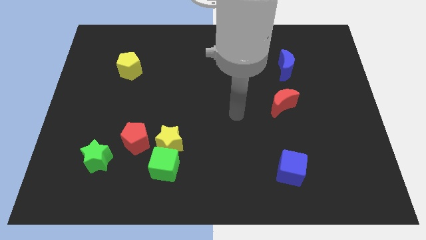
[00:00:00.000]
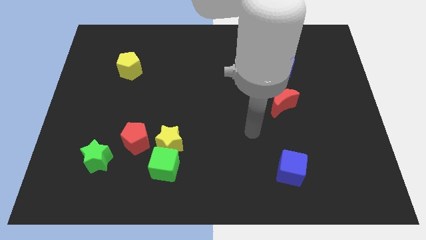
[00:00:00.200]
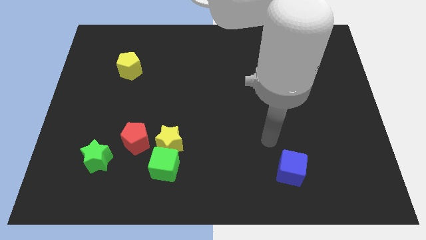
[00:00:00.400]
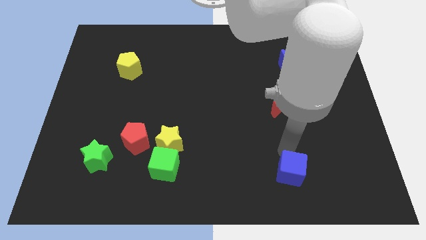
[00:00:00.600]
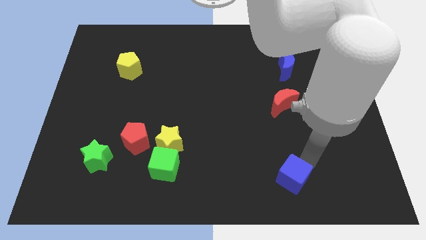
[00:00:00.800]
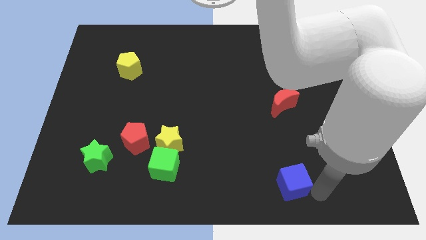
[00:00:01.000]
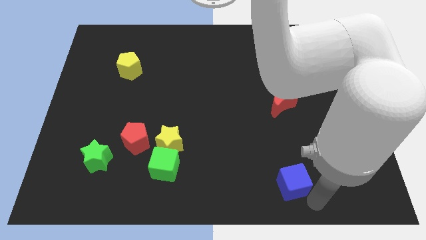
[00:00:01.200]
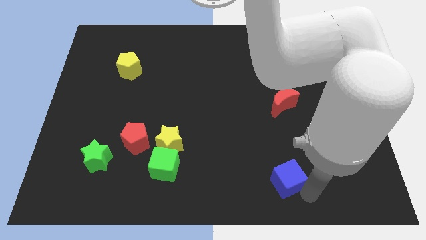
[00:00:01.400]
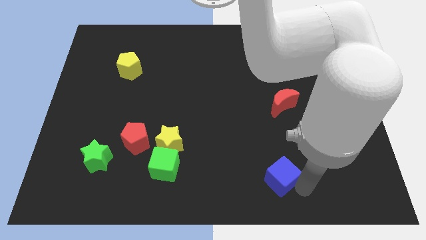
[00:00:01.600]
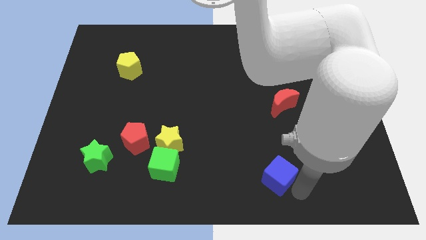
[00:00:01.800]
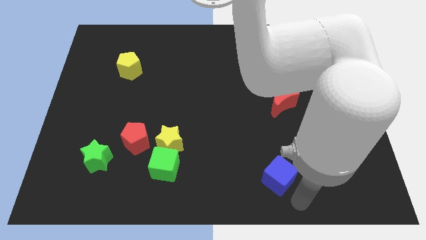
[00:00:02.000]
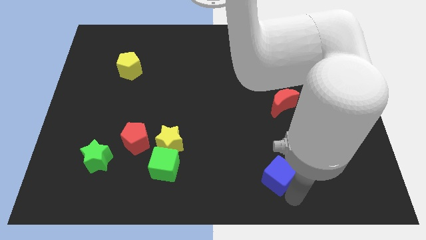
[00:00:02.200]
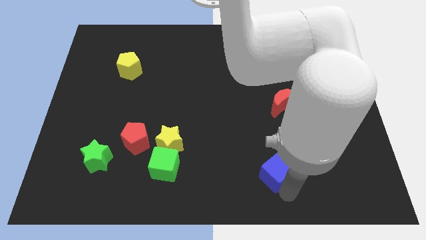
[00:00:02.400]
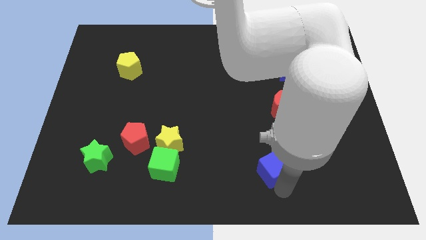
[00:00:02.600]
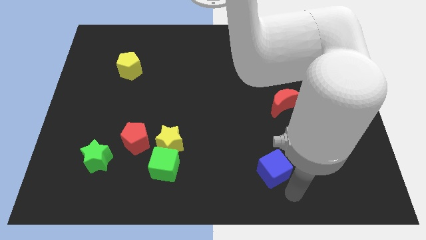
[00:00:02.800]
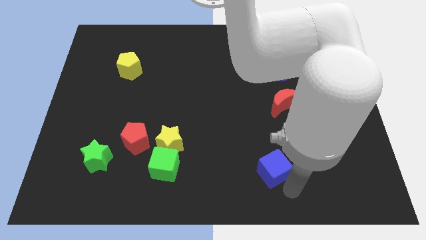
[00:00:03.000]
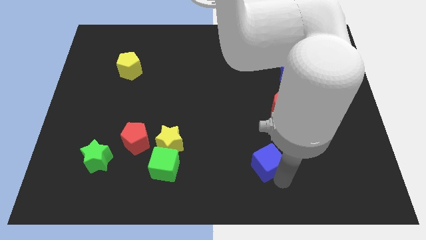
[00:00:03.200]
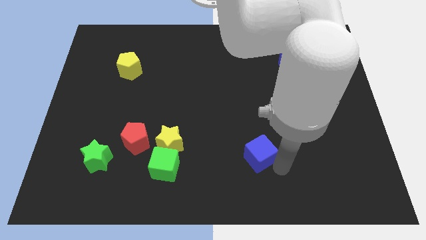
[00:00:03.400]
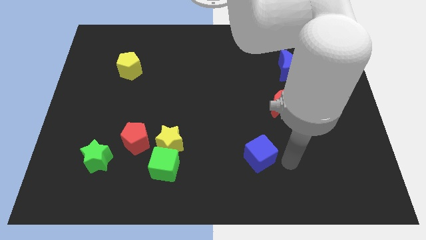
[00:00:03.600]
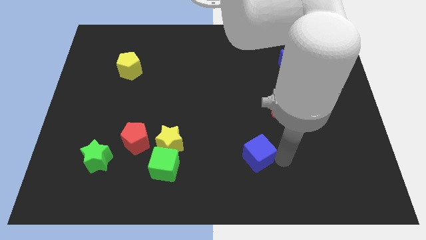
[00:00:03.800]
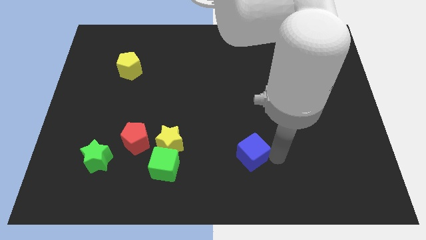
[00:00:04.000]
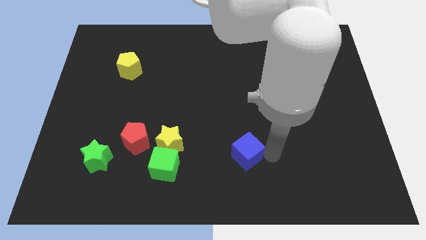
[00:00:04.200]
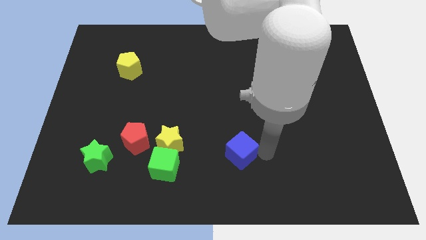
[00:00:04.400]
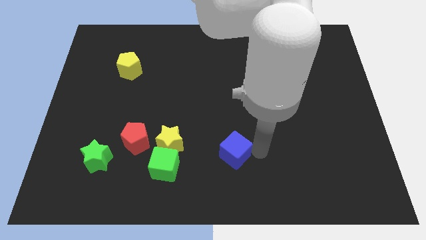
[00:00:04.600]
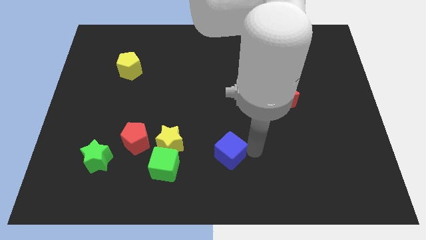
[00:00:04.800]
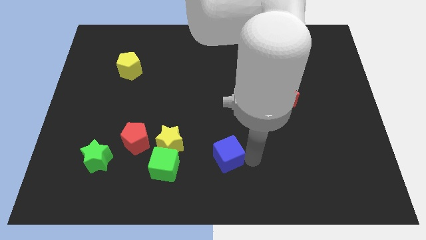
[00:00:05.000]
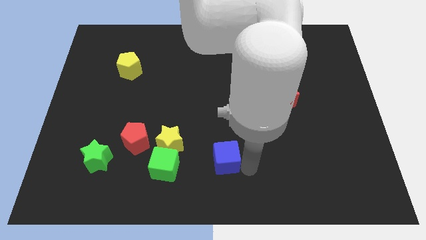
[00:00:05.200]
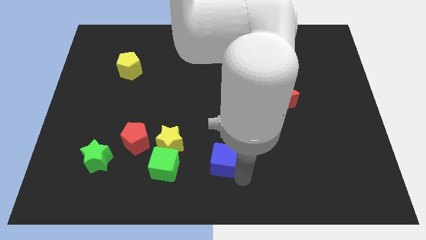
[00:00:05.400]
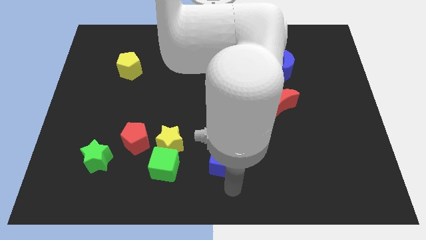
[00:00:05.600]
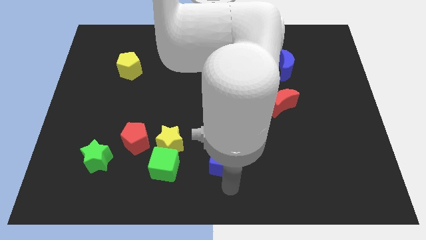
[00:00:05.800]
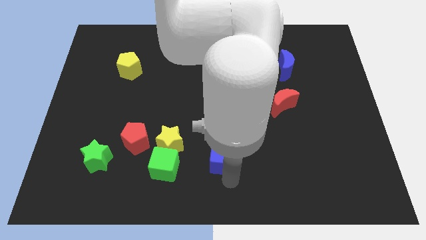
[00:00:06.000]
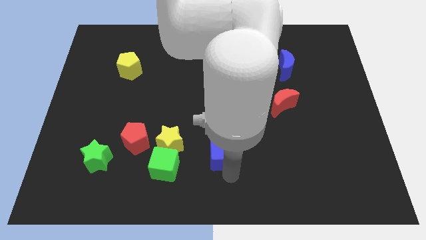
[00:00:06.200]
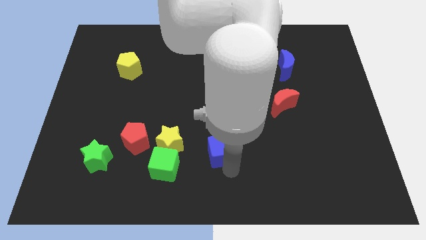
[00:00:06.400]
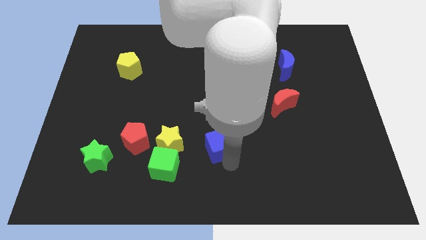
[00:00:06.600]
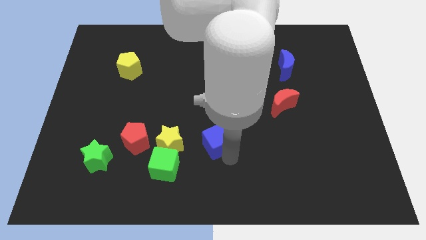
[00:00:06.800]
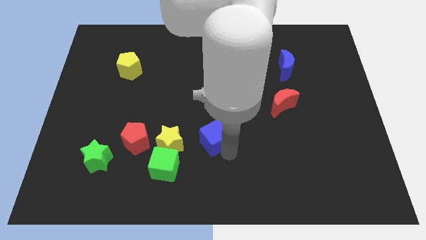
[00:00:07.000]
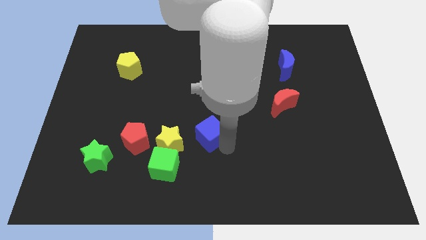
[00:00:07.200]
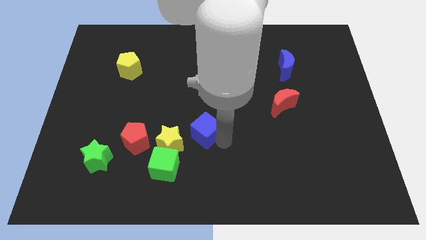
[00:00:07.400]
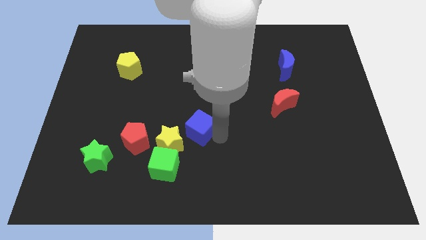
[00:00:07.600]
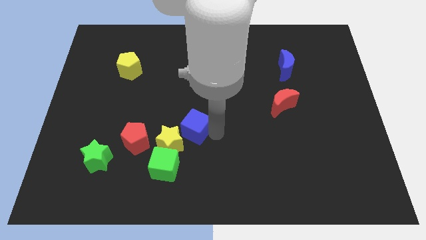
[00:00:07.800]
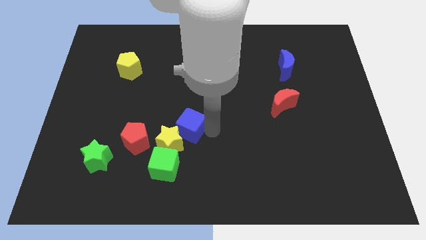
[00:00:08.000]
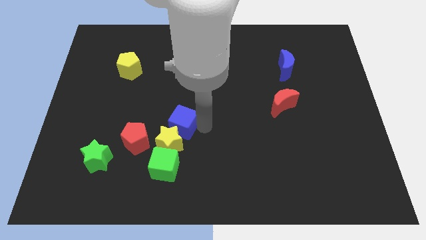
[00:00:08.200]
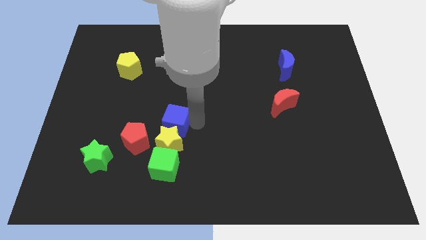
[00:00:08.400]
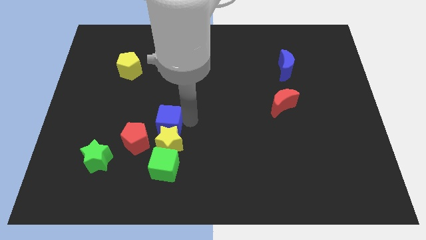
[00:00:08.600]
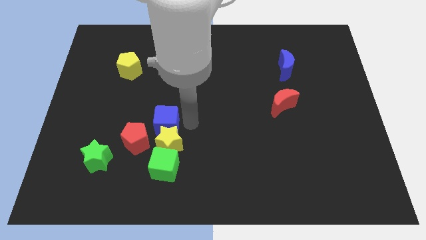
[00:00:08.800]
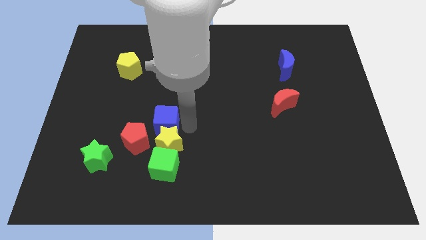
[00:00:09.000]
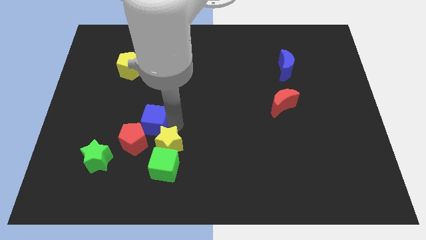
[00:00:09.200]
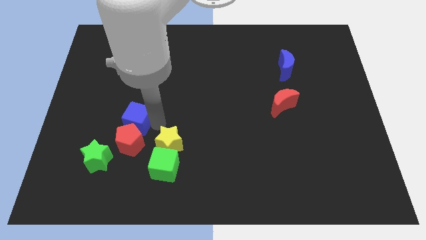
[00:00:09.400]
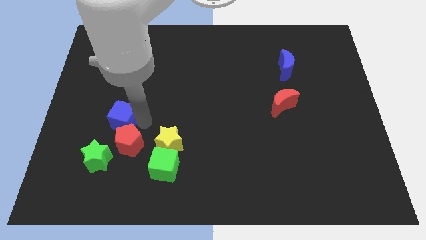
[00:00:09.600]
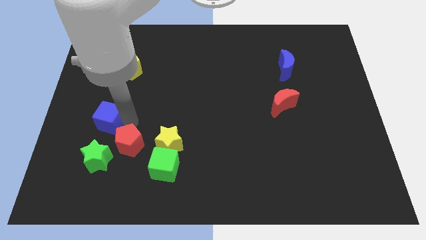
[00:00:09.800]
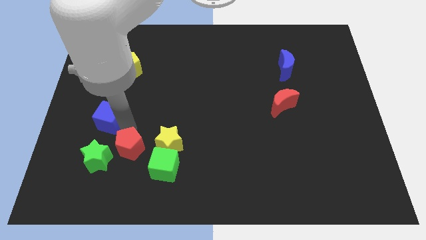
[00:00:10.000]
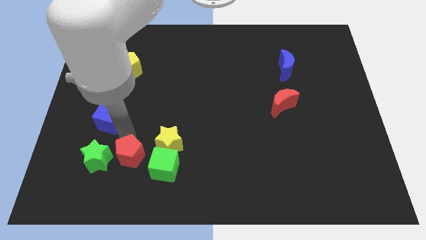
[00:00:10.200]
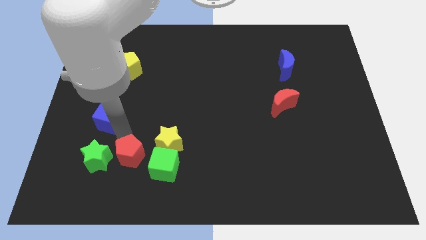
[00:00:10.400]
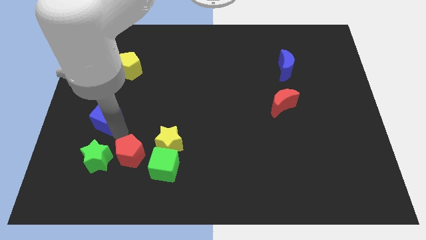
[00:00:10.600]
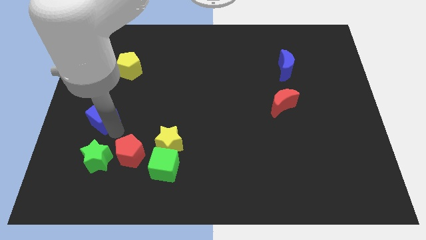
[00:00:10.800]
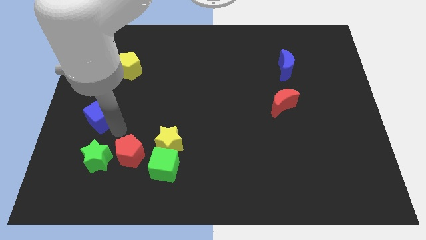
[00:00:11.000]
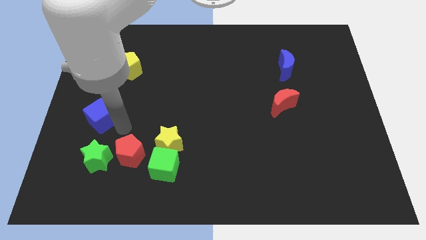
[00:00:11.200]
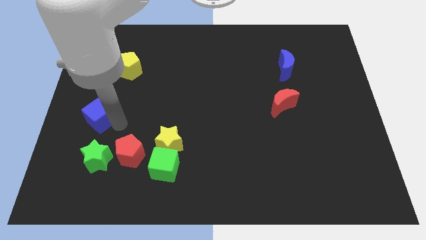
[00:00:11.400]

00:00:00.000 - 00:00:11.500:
slide the blue cube to the center left
